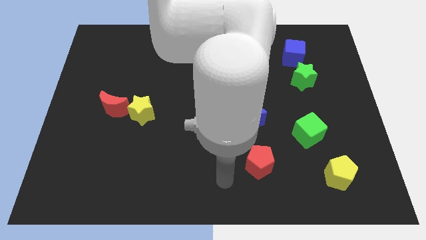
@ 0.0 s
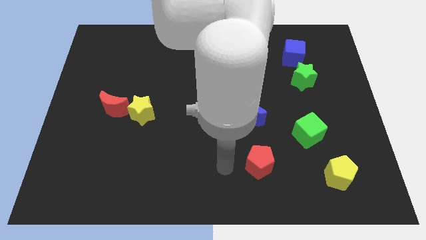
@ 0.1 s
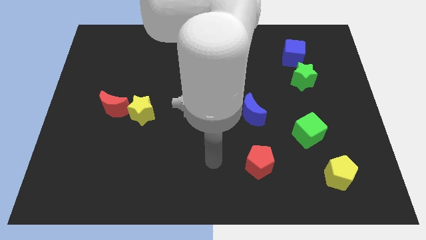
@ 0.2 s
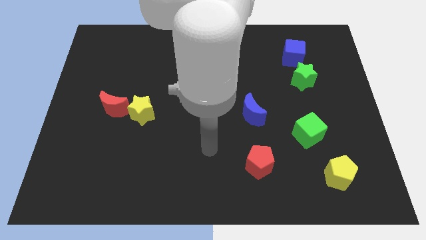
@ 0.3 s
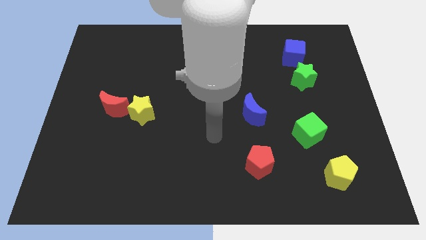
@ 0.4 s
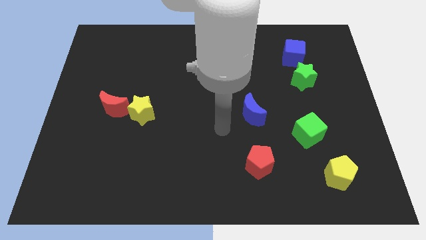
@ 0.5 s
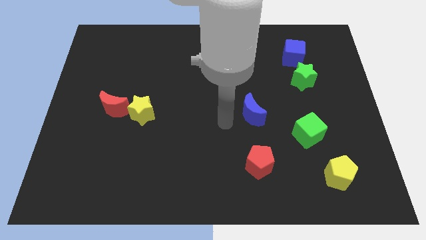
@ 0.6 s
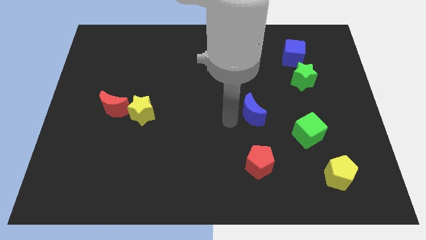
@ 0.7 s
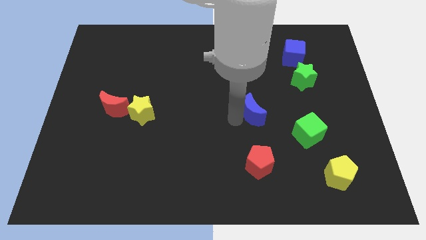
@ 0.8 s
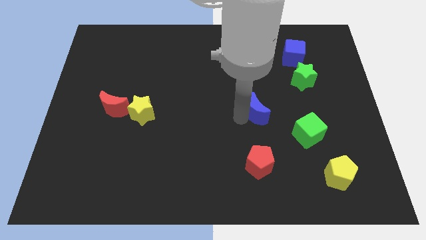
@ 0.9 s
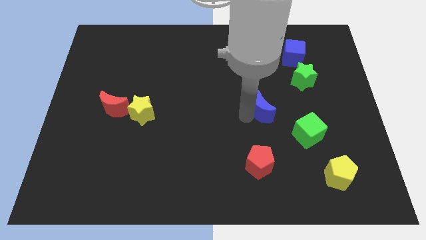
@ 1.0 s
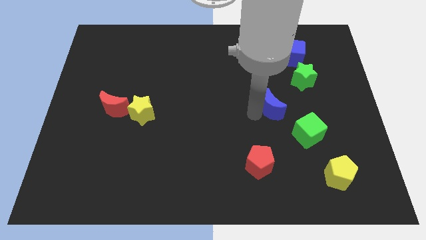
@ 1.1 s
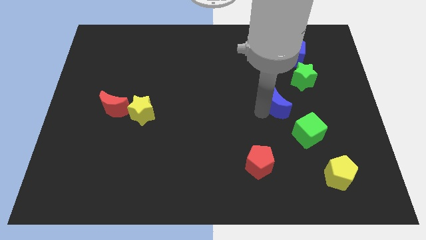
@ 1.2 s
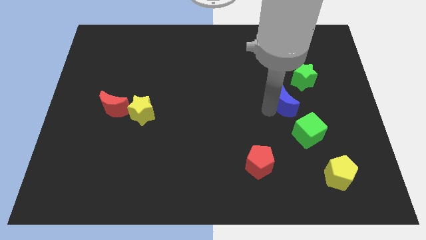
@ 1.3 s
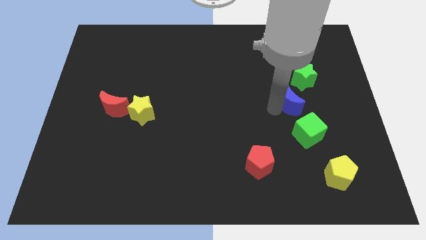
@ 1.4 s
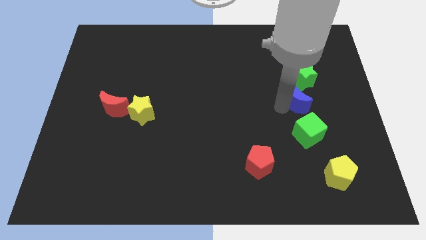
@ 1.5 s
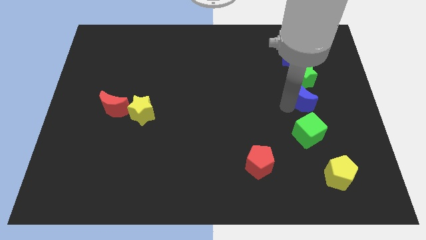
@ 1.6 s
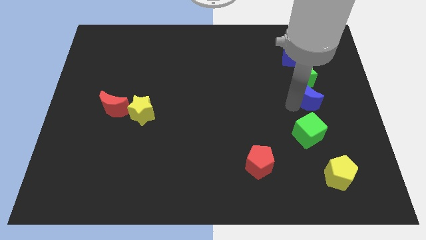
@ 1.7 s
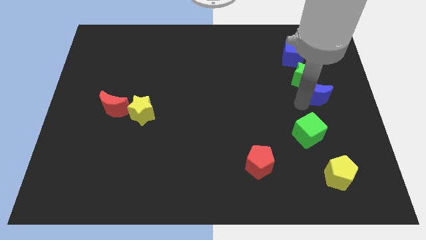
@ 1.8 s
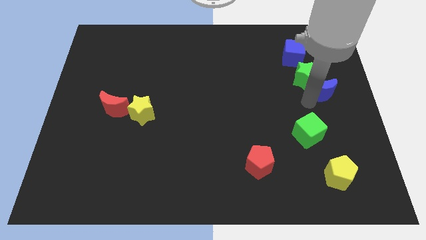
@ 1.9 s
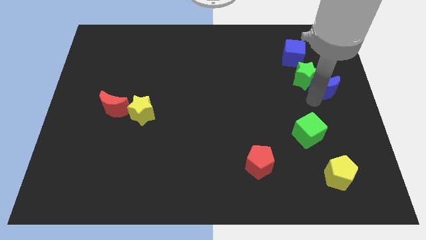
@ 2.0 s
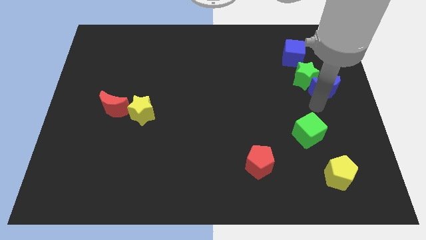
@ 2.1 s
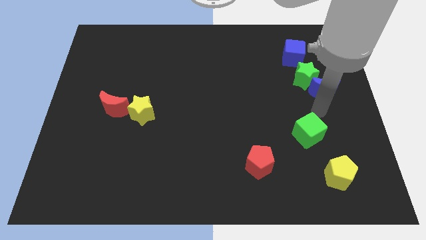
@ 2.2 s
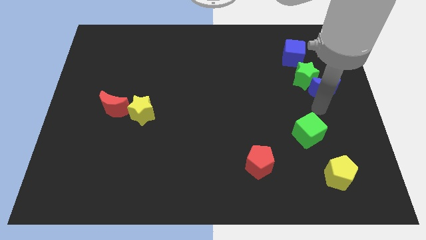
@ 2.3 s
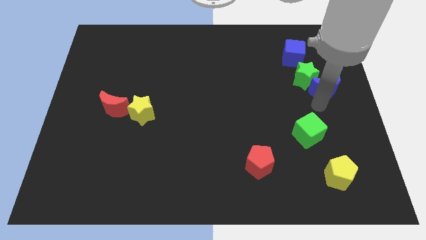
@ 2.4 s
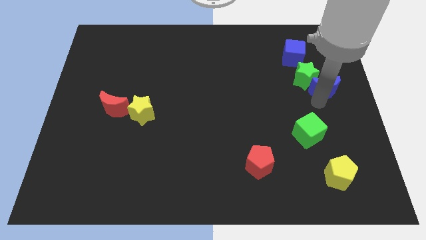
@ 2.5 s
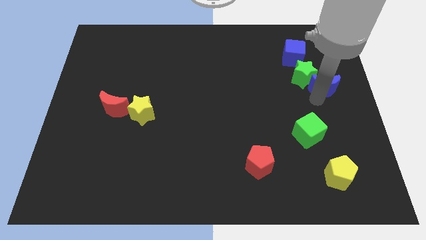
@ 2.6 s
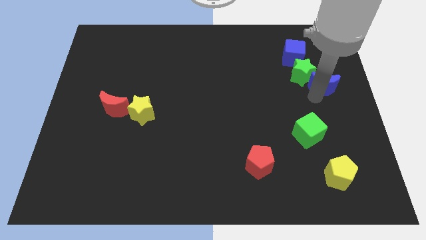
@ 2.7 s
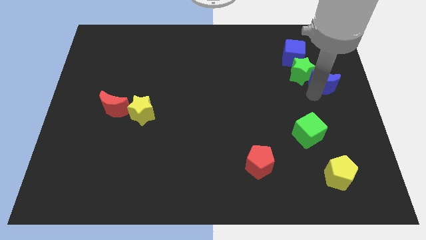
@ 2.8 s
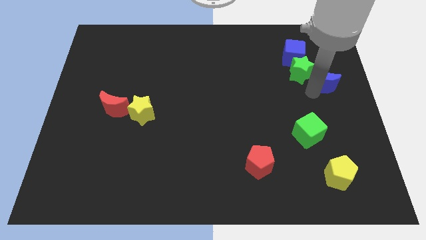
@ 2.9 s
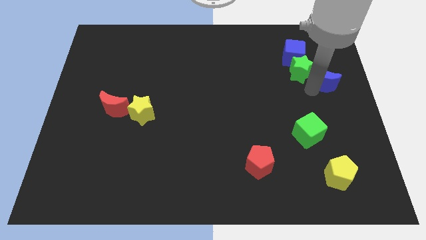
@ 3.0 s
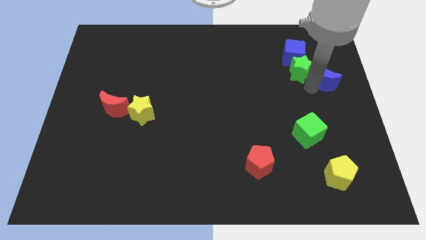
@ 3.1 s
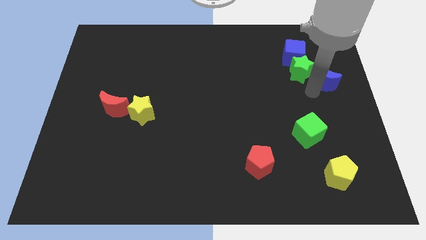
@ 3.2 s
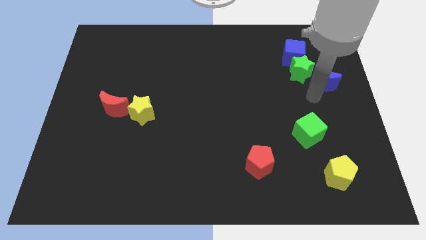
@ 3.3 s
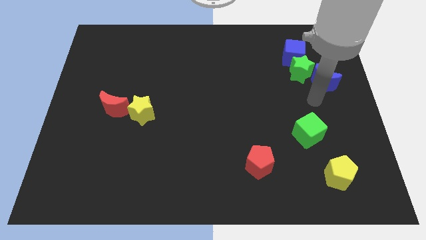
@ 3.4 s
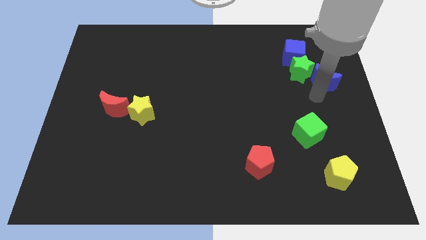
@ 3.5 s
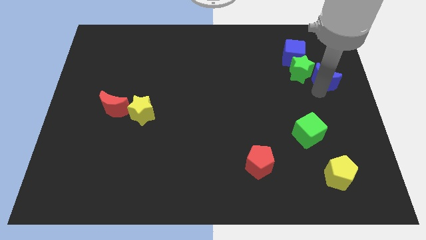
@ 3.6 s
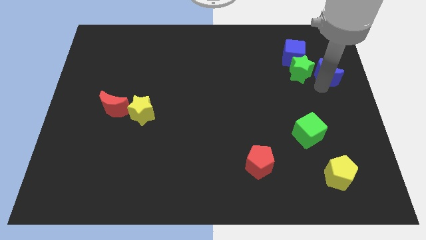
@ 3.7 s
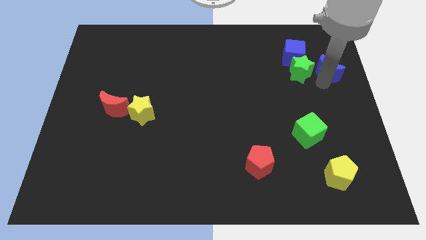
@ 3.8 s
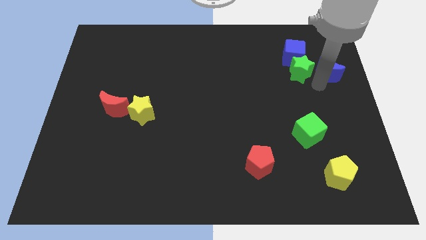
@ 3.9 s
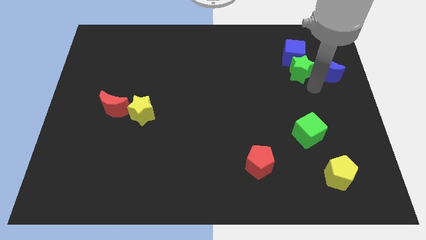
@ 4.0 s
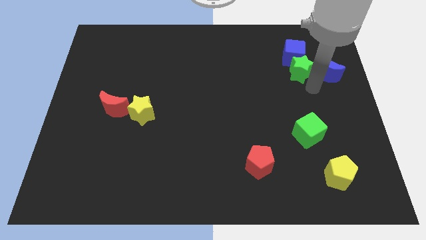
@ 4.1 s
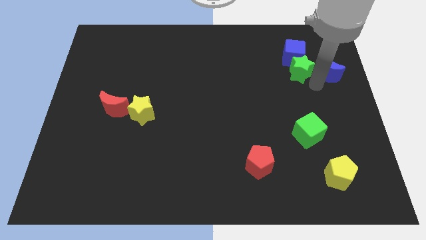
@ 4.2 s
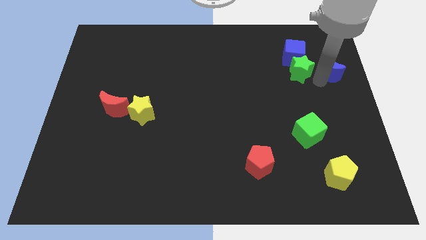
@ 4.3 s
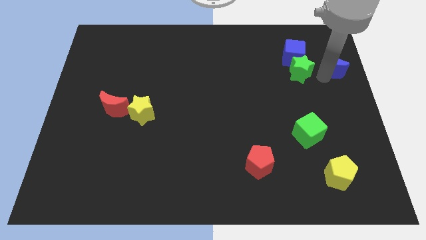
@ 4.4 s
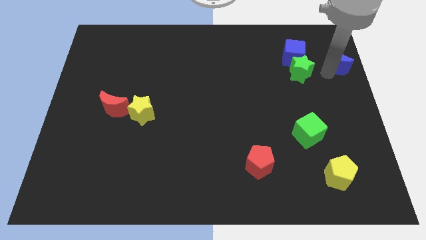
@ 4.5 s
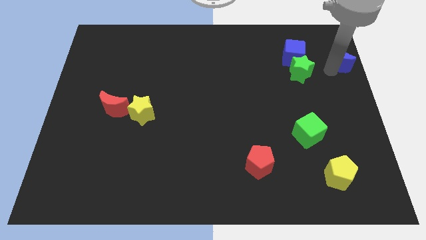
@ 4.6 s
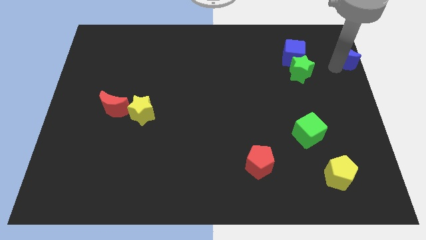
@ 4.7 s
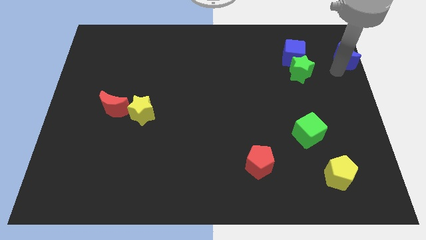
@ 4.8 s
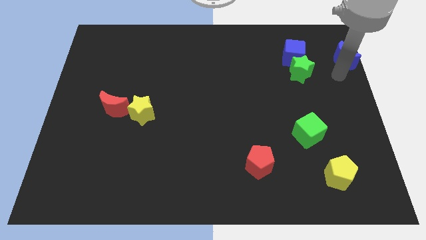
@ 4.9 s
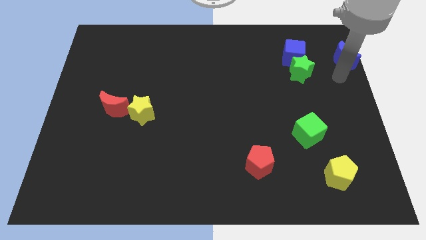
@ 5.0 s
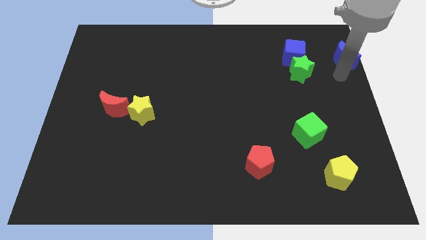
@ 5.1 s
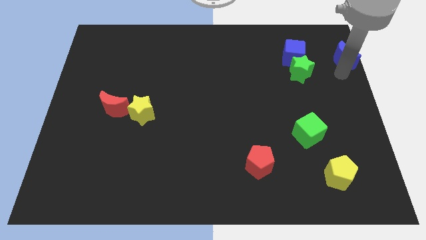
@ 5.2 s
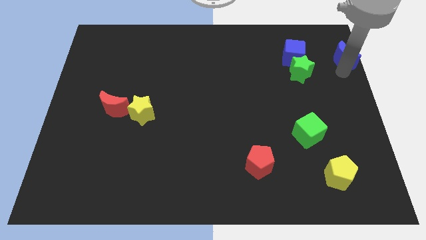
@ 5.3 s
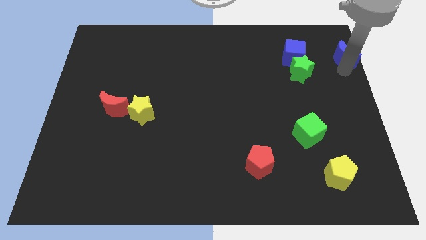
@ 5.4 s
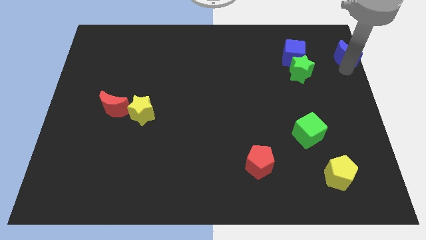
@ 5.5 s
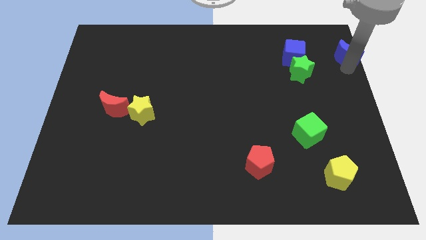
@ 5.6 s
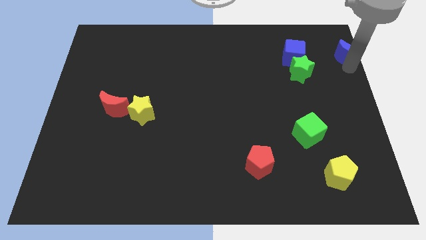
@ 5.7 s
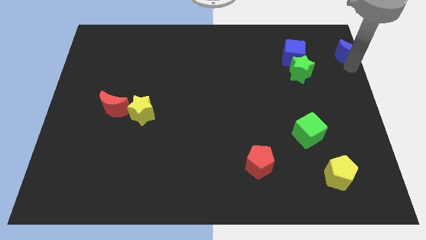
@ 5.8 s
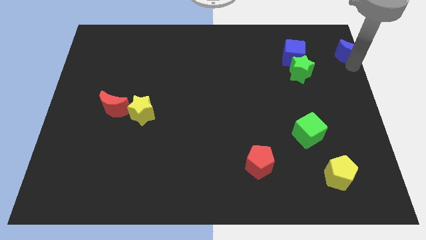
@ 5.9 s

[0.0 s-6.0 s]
put the blue moon to the upper right corner

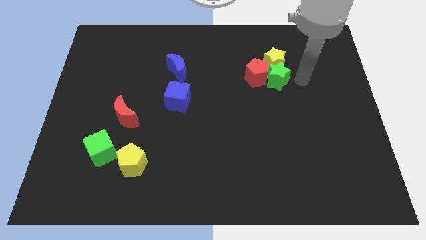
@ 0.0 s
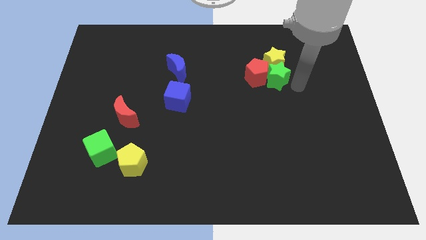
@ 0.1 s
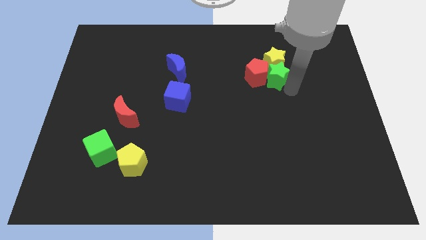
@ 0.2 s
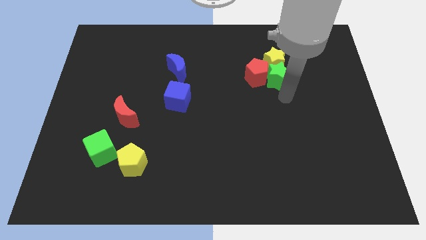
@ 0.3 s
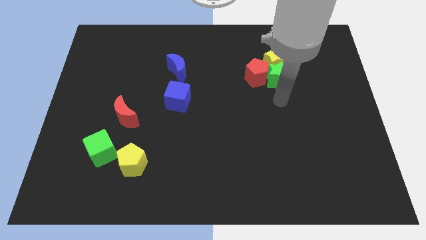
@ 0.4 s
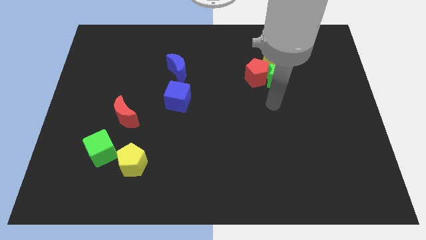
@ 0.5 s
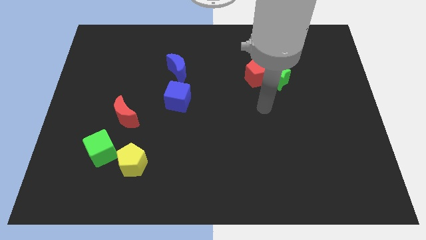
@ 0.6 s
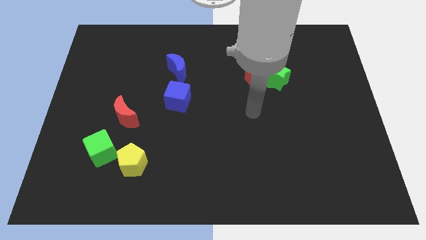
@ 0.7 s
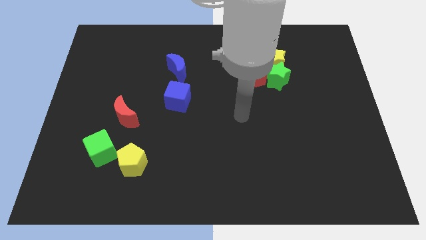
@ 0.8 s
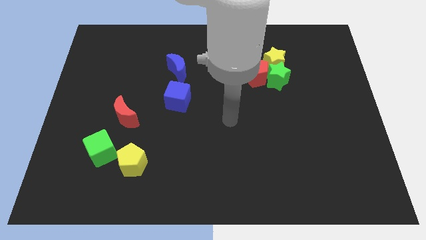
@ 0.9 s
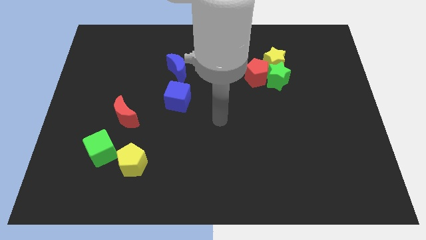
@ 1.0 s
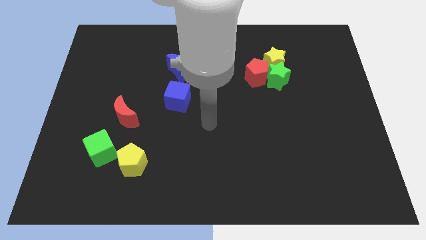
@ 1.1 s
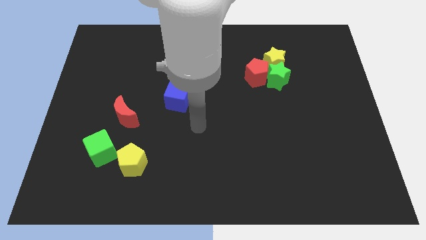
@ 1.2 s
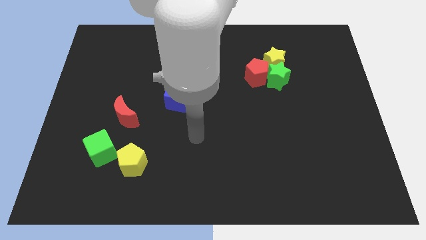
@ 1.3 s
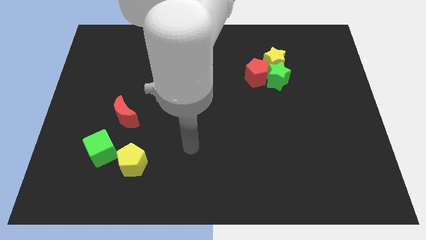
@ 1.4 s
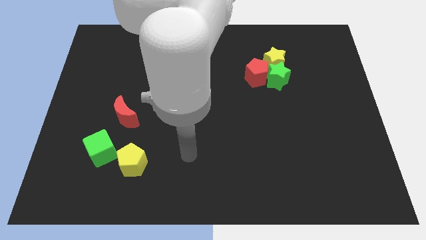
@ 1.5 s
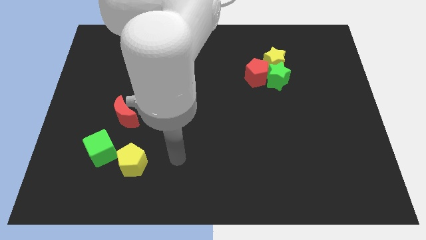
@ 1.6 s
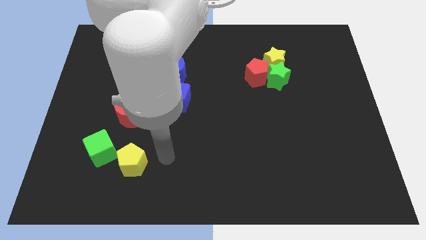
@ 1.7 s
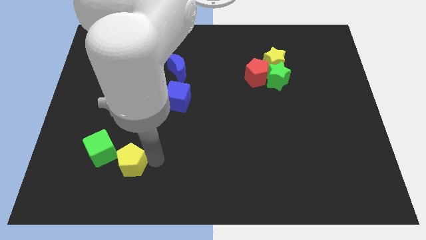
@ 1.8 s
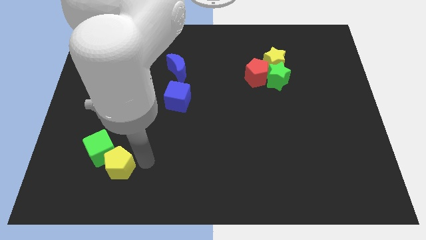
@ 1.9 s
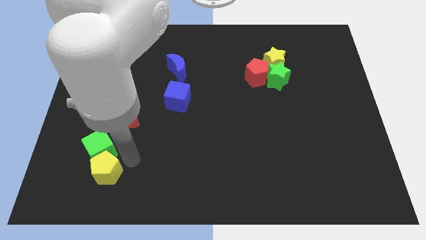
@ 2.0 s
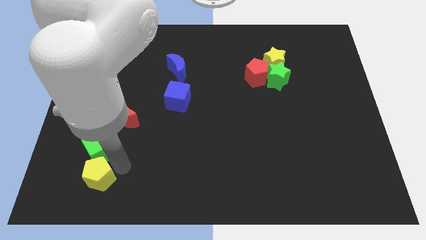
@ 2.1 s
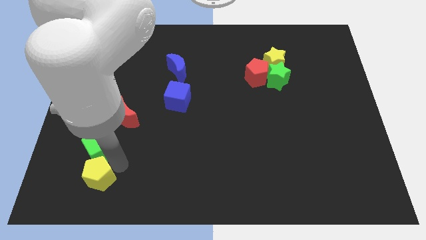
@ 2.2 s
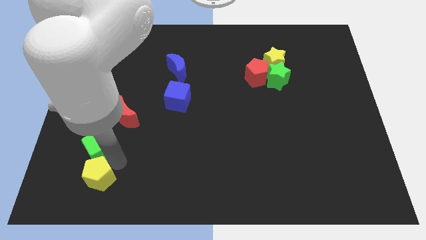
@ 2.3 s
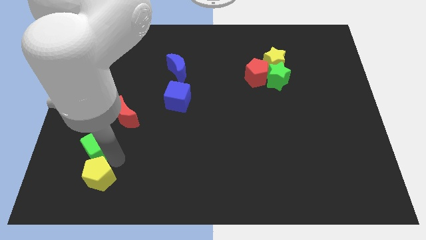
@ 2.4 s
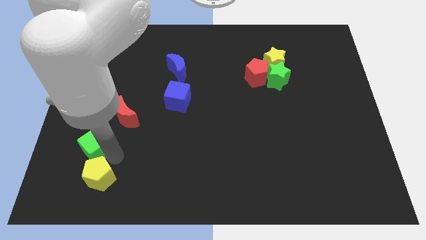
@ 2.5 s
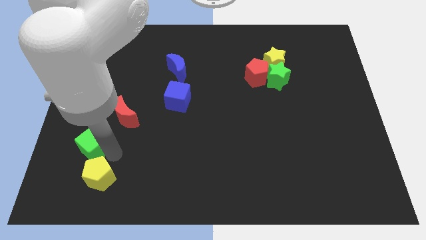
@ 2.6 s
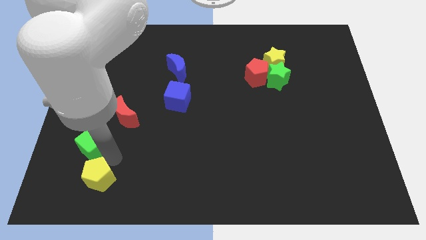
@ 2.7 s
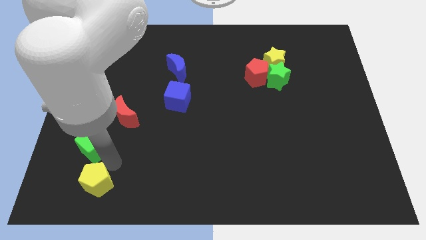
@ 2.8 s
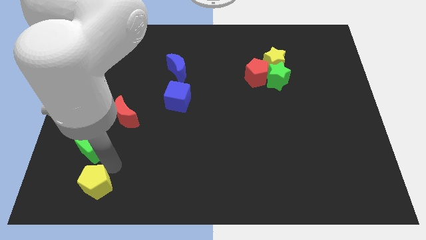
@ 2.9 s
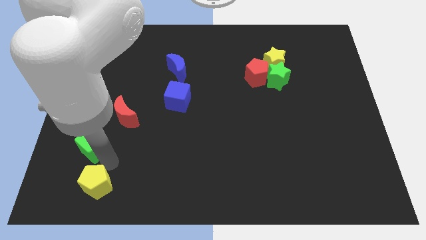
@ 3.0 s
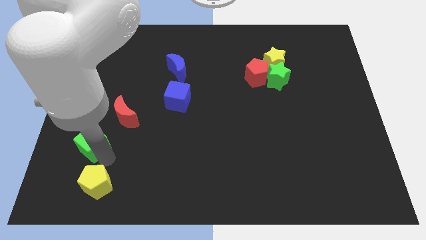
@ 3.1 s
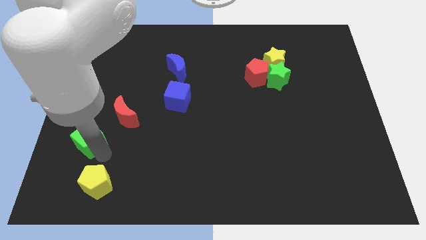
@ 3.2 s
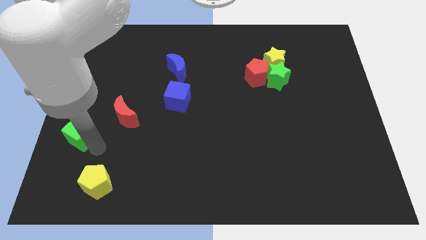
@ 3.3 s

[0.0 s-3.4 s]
put the green cube to the left side of the board
